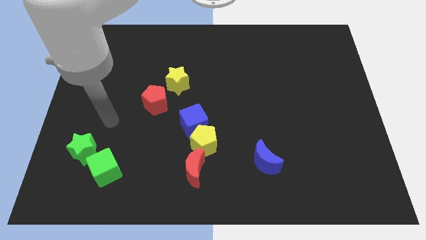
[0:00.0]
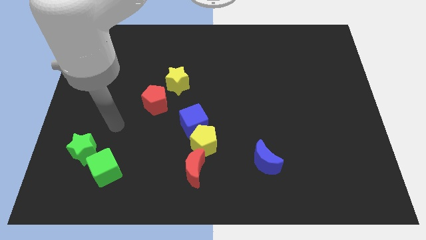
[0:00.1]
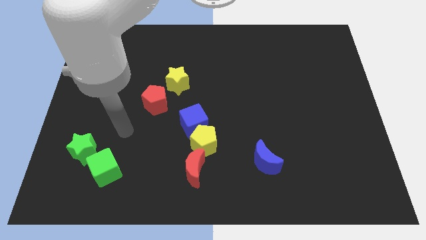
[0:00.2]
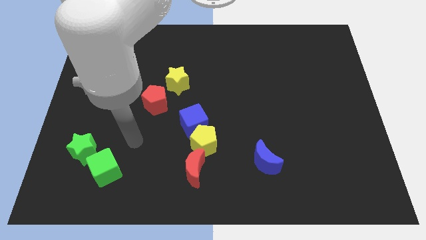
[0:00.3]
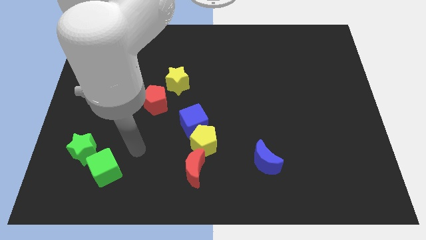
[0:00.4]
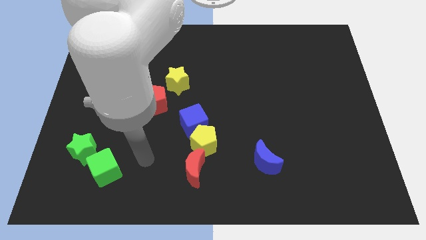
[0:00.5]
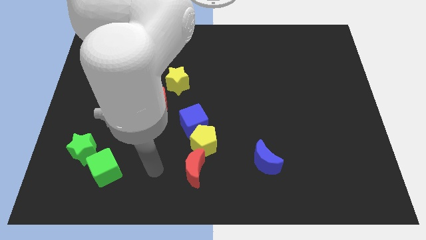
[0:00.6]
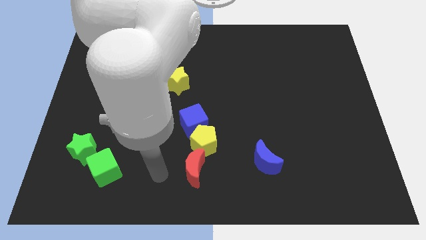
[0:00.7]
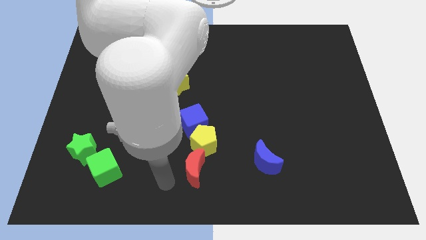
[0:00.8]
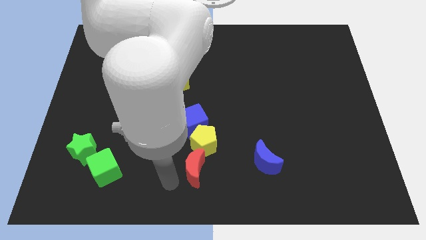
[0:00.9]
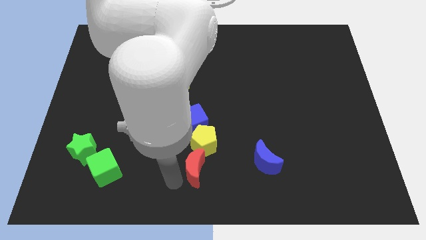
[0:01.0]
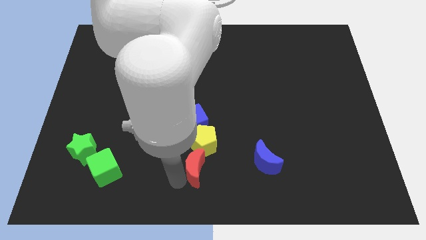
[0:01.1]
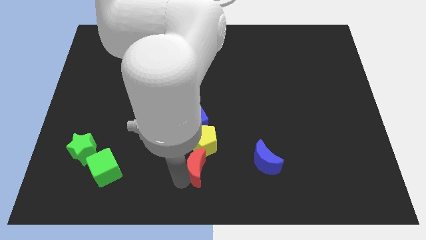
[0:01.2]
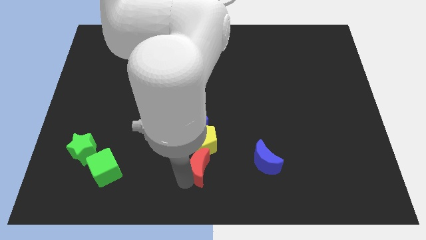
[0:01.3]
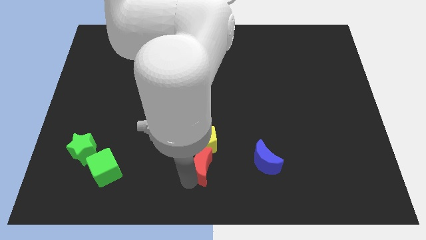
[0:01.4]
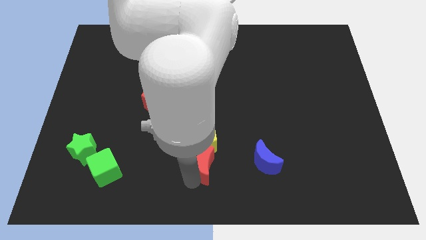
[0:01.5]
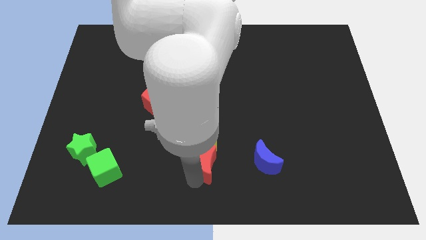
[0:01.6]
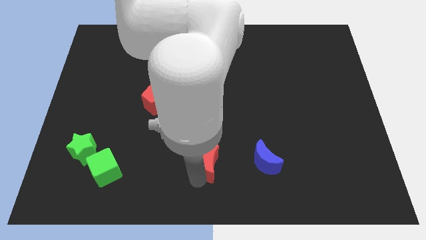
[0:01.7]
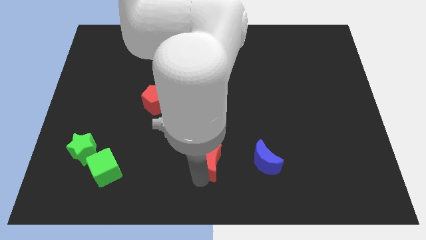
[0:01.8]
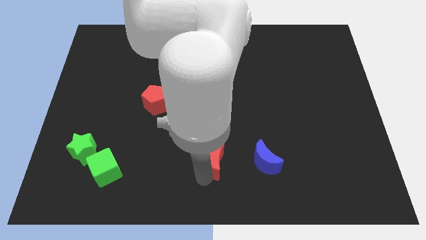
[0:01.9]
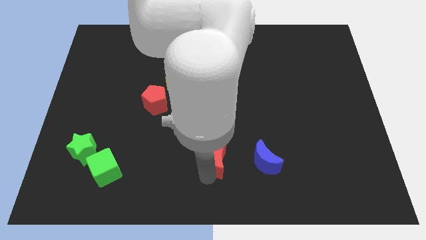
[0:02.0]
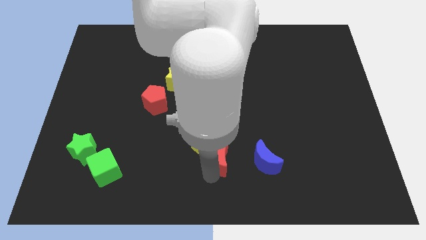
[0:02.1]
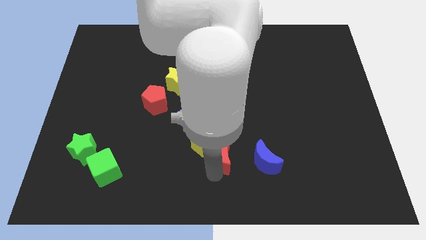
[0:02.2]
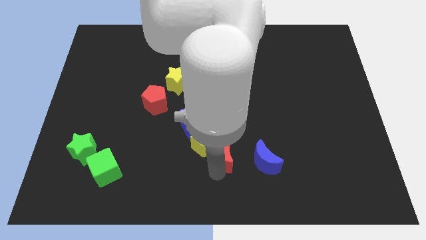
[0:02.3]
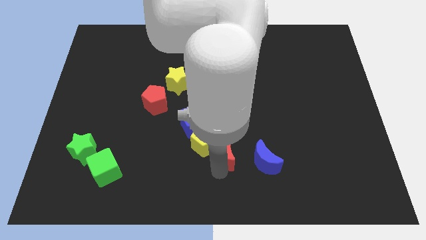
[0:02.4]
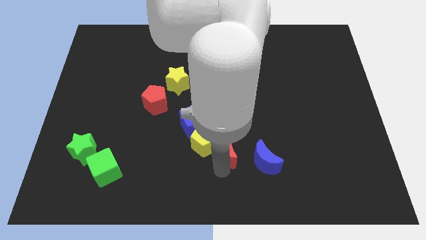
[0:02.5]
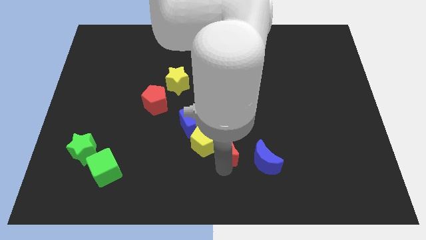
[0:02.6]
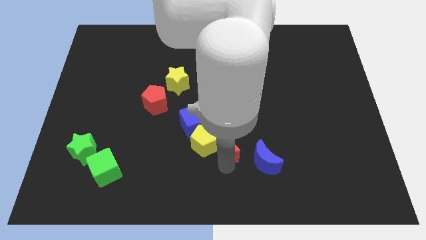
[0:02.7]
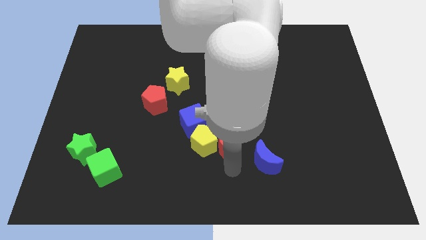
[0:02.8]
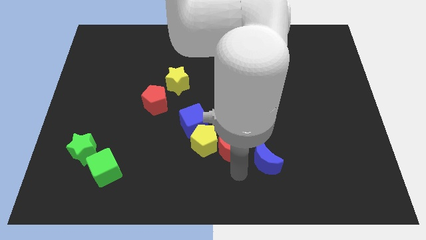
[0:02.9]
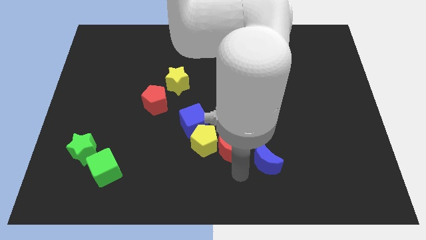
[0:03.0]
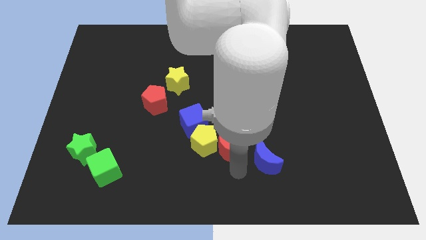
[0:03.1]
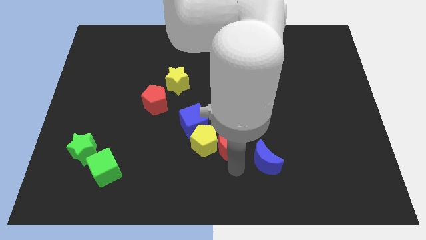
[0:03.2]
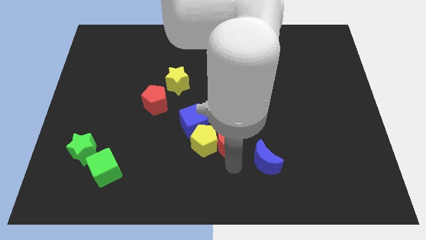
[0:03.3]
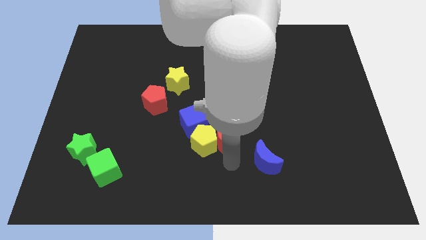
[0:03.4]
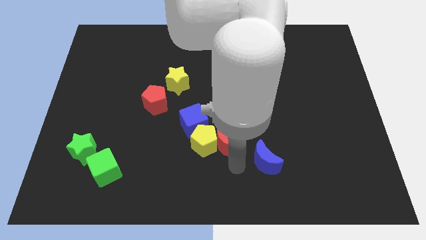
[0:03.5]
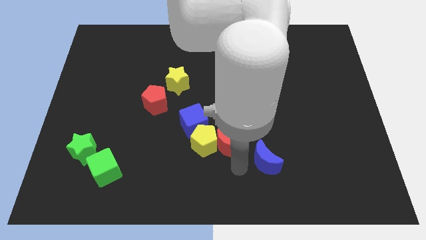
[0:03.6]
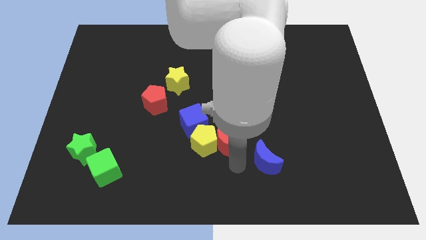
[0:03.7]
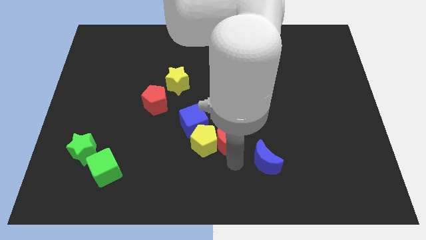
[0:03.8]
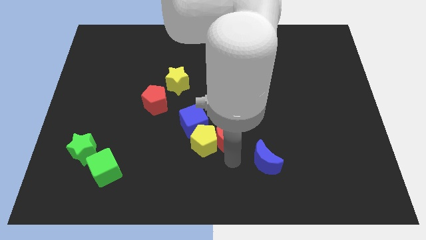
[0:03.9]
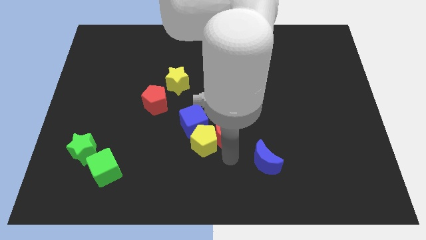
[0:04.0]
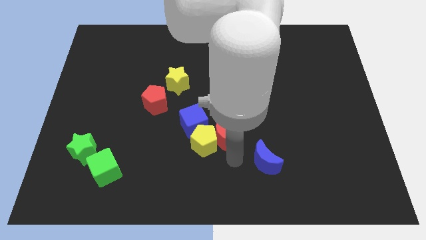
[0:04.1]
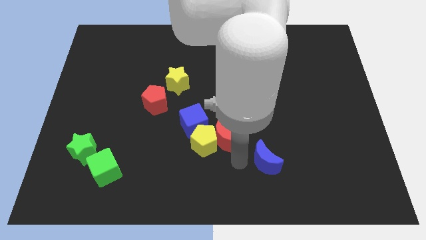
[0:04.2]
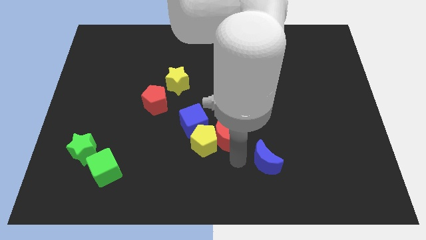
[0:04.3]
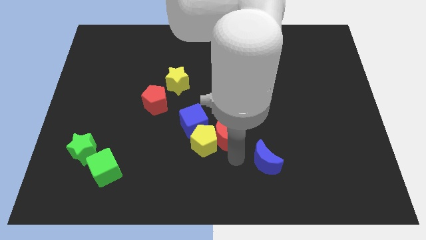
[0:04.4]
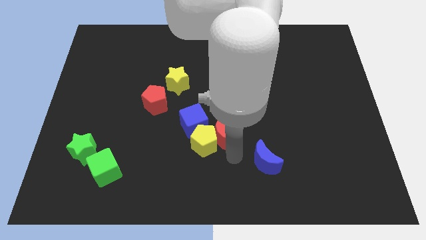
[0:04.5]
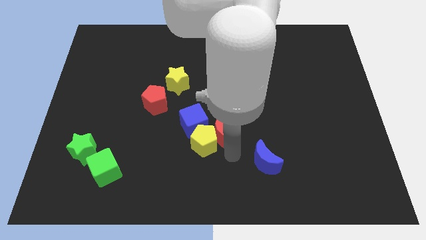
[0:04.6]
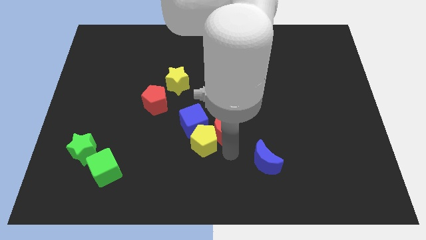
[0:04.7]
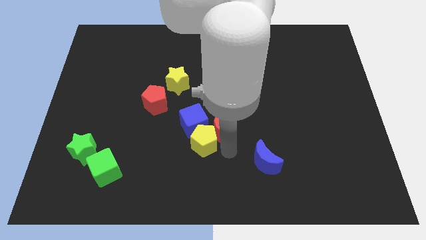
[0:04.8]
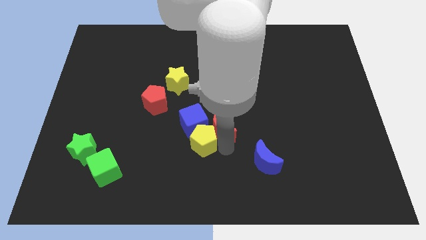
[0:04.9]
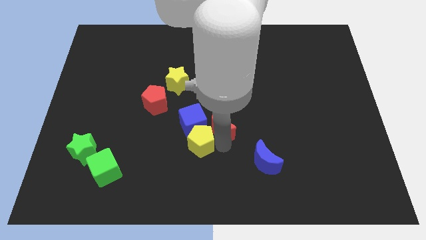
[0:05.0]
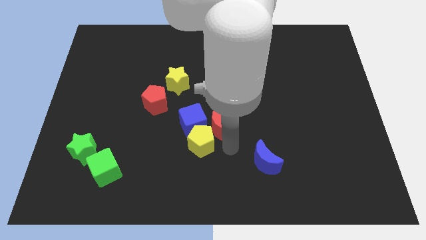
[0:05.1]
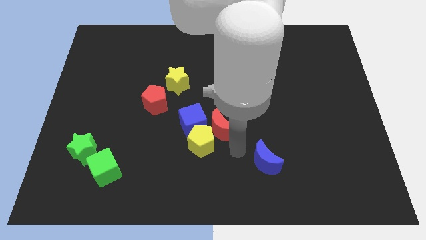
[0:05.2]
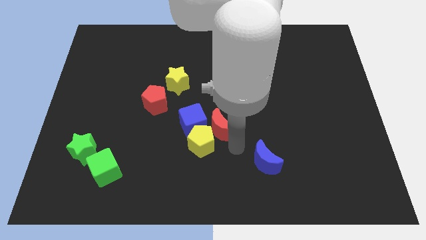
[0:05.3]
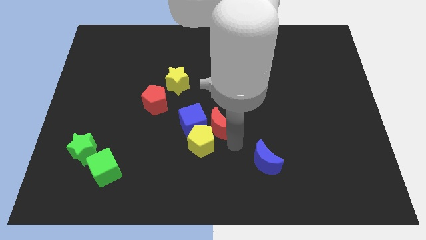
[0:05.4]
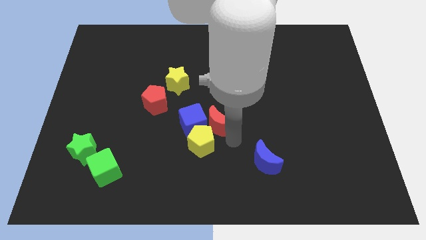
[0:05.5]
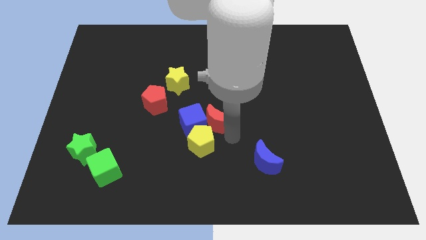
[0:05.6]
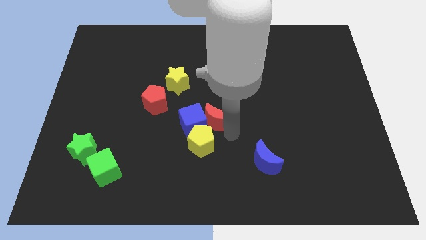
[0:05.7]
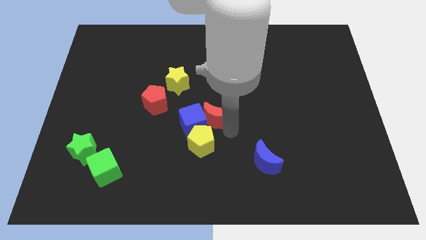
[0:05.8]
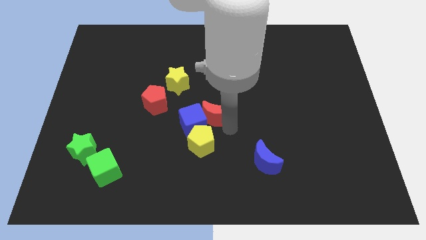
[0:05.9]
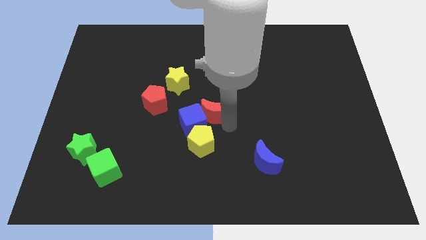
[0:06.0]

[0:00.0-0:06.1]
slide the red moon to the right side of the red pentagon

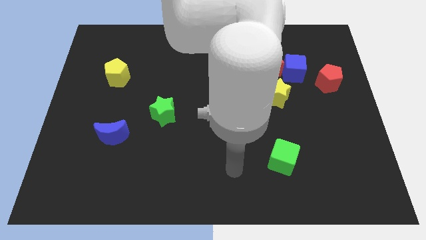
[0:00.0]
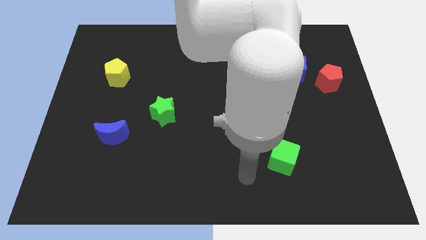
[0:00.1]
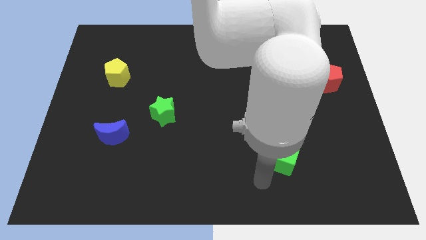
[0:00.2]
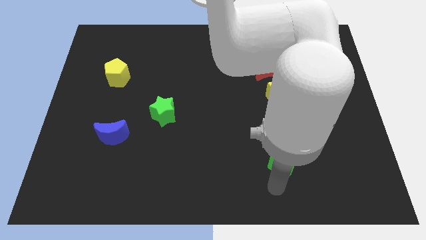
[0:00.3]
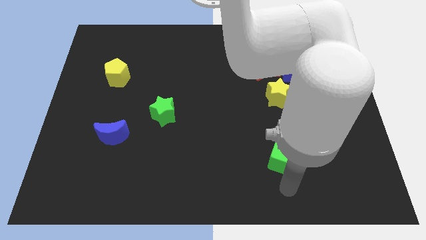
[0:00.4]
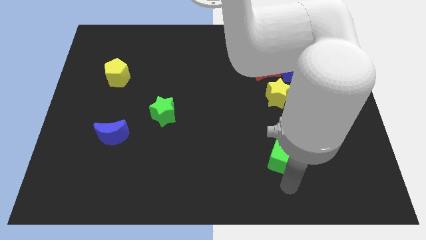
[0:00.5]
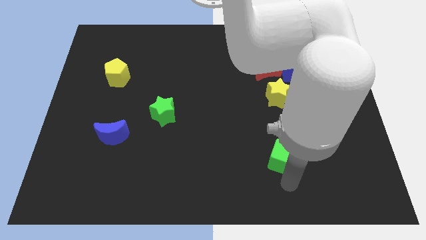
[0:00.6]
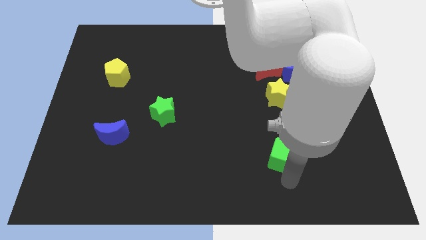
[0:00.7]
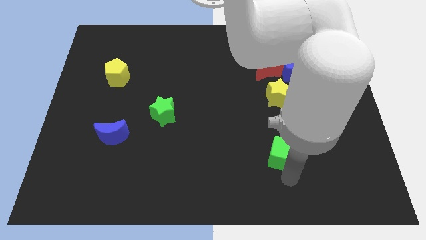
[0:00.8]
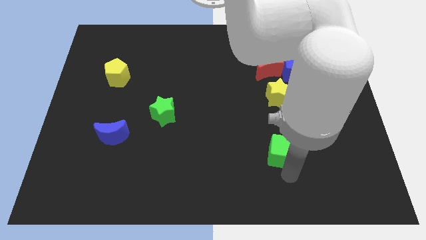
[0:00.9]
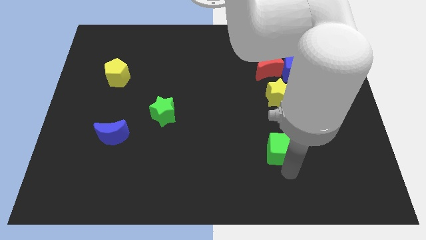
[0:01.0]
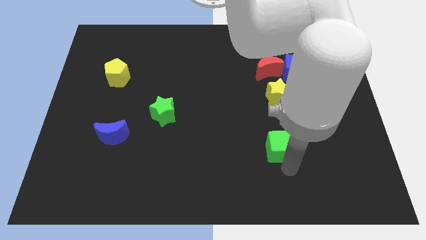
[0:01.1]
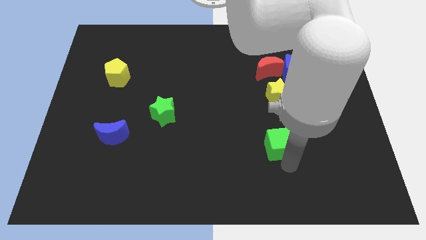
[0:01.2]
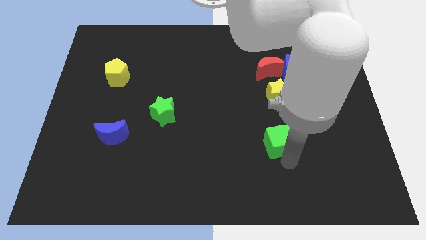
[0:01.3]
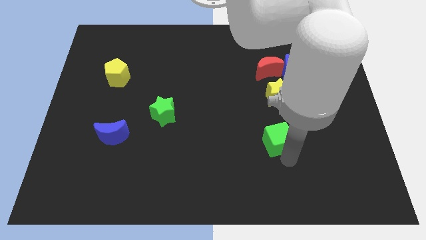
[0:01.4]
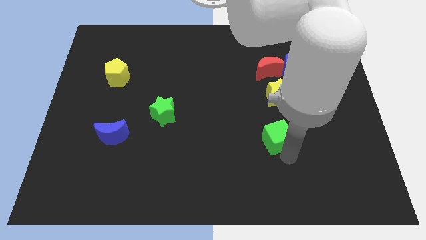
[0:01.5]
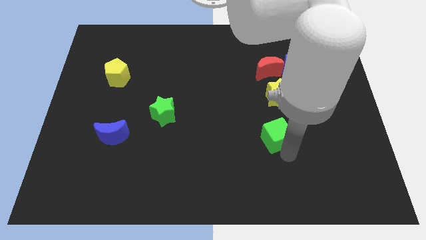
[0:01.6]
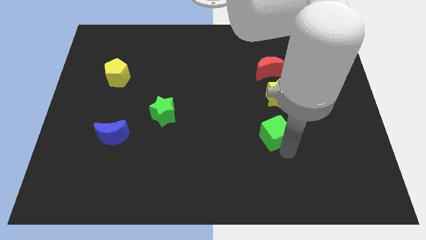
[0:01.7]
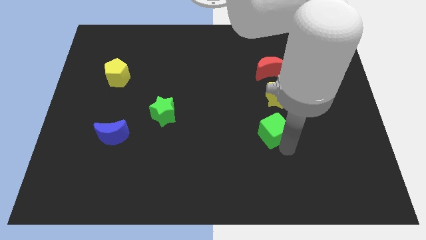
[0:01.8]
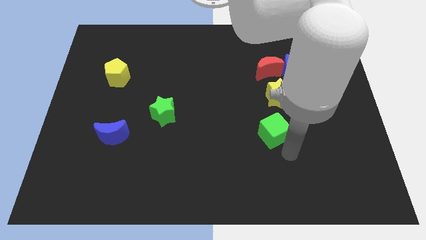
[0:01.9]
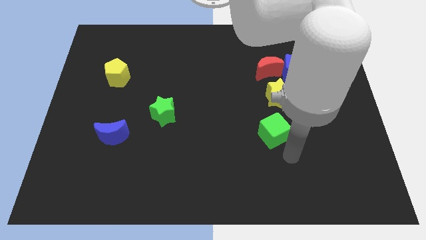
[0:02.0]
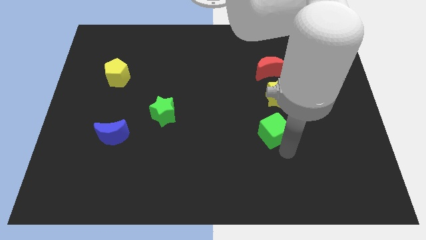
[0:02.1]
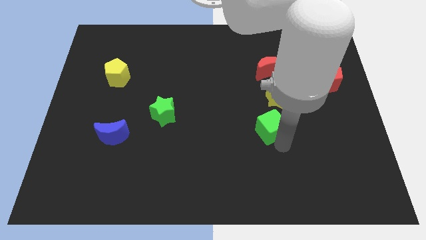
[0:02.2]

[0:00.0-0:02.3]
put the green cube diagonally down and to the left of the yellow star
